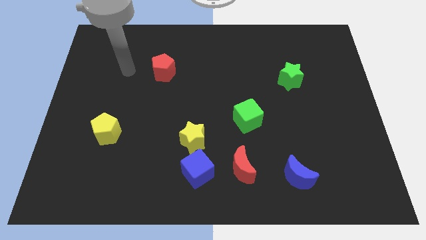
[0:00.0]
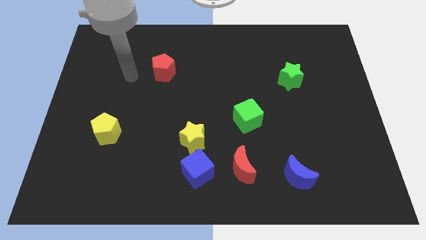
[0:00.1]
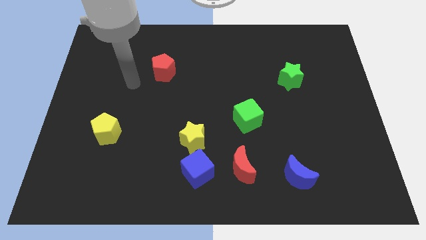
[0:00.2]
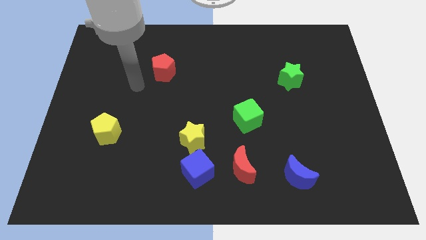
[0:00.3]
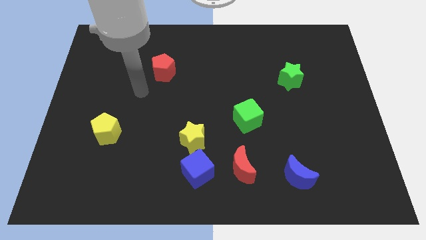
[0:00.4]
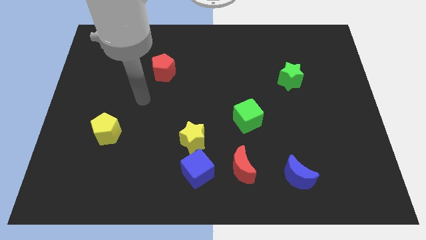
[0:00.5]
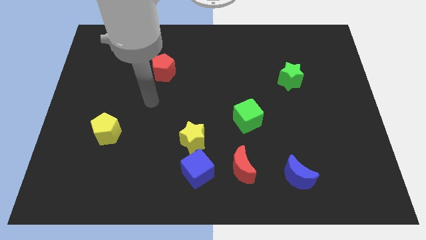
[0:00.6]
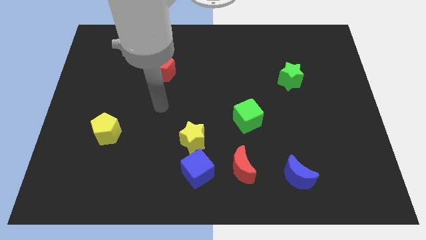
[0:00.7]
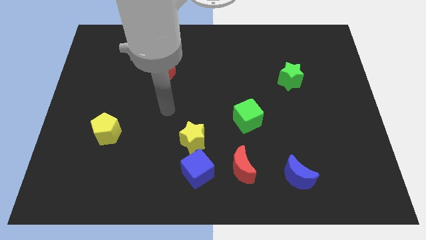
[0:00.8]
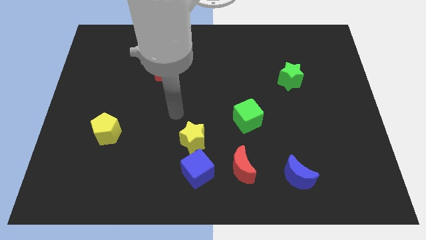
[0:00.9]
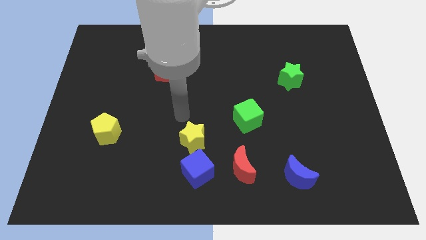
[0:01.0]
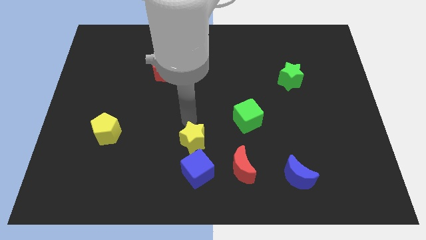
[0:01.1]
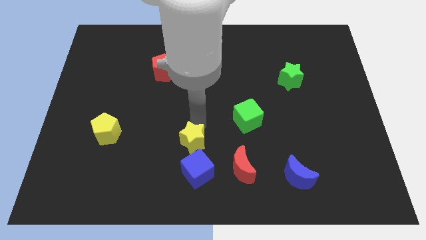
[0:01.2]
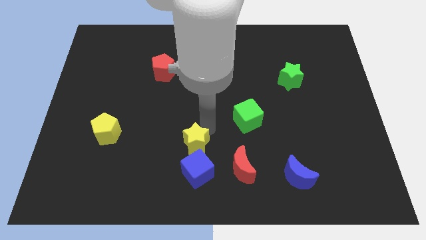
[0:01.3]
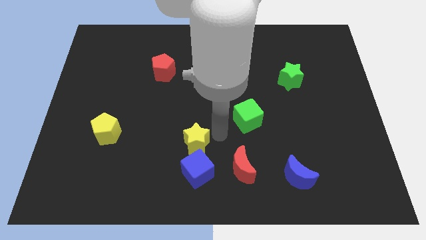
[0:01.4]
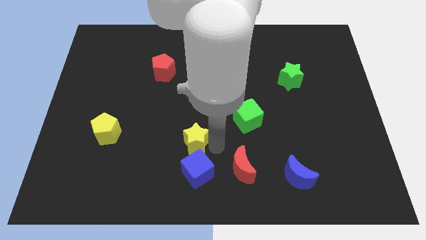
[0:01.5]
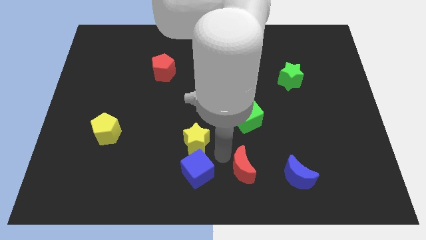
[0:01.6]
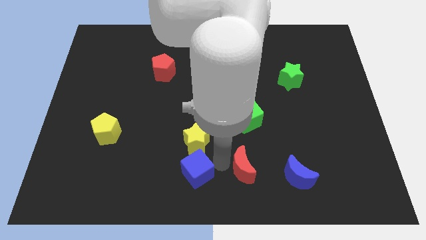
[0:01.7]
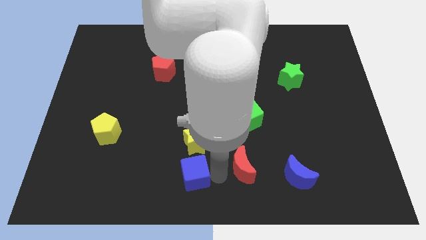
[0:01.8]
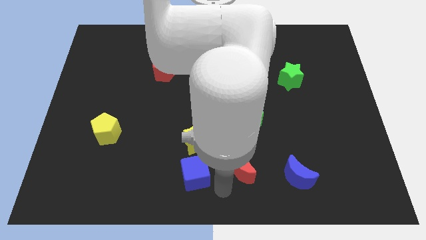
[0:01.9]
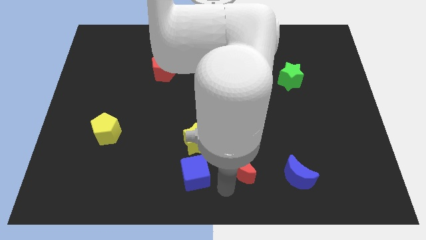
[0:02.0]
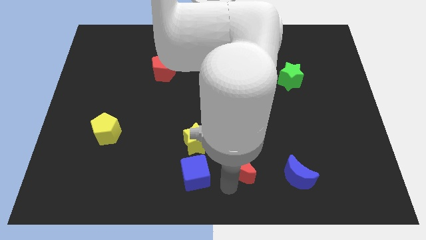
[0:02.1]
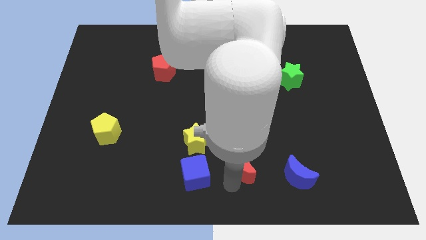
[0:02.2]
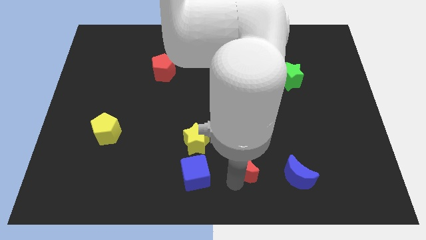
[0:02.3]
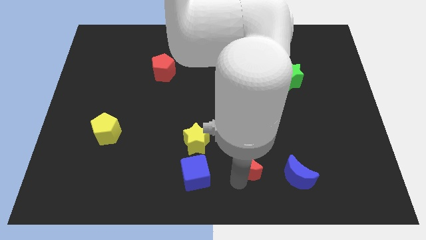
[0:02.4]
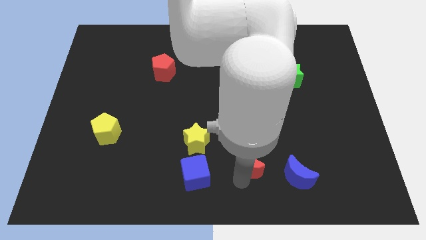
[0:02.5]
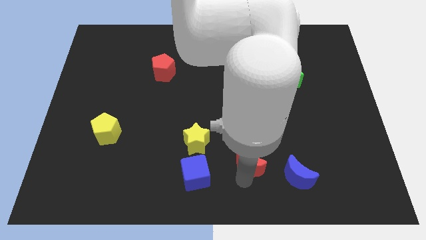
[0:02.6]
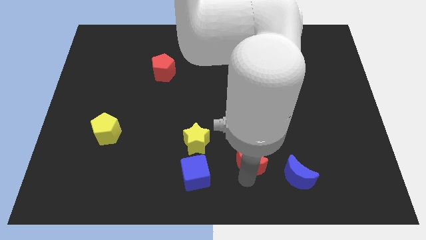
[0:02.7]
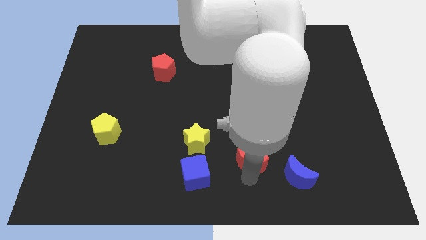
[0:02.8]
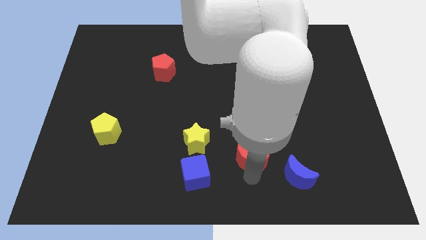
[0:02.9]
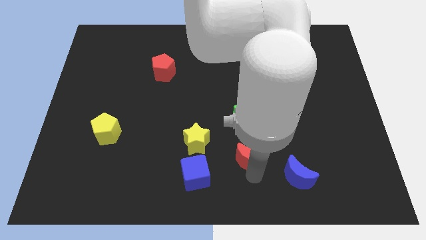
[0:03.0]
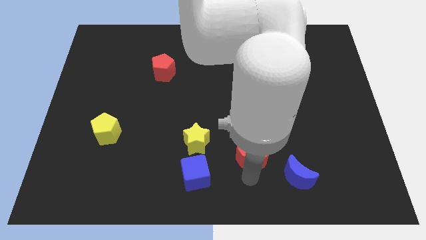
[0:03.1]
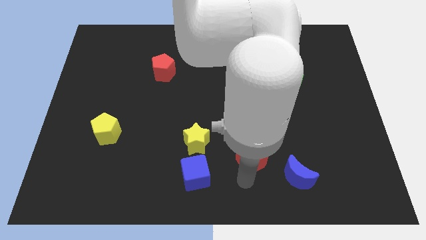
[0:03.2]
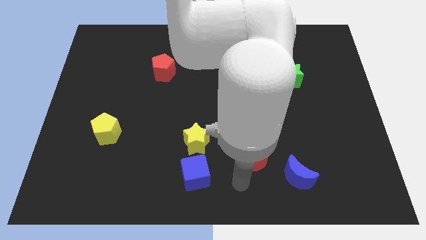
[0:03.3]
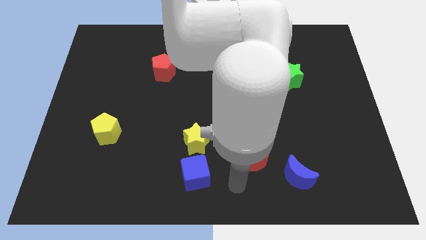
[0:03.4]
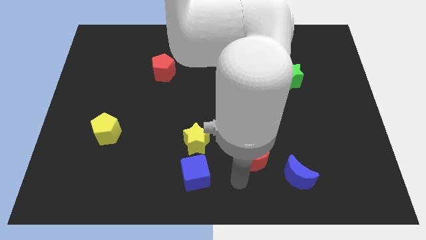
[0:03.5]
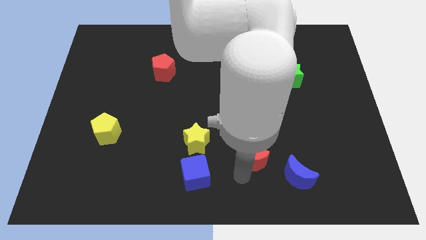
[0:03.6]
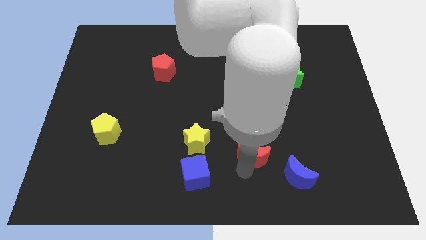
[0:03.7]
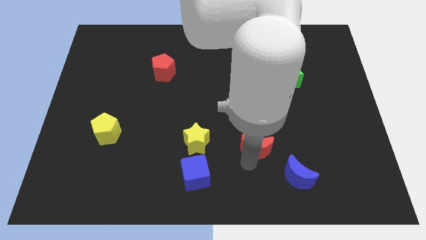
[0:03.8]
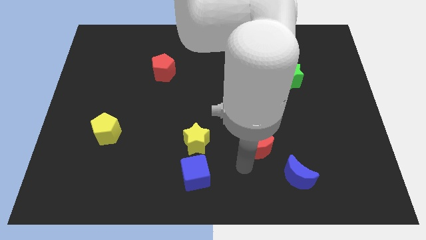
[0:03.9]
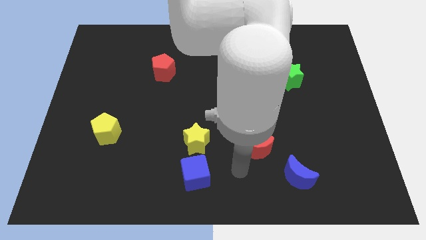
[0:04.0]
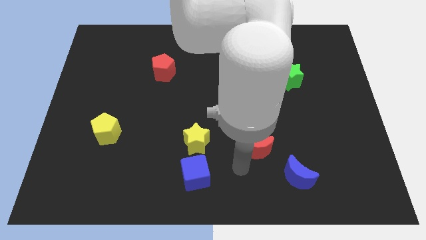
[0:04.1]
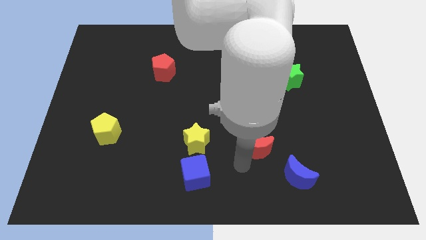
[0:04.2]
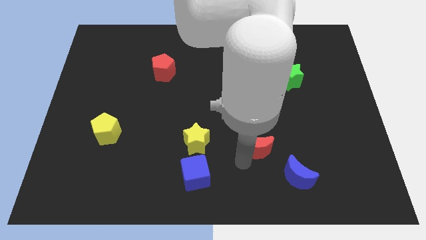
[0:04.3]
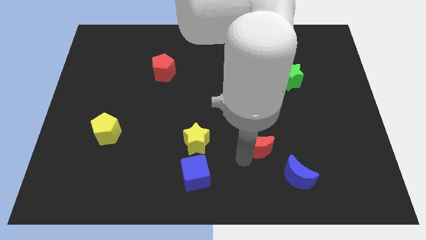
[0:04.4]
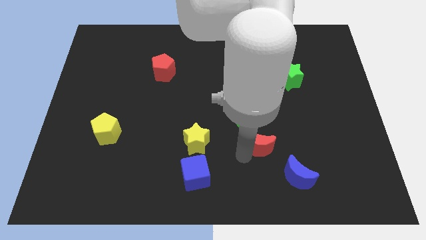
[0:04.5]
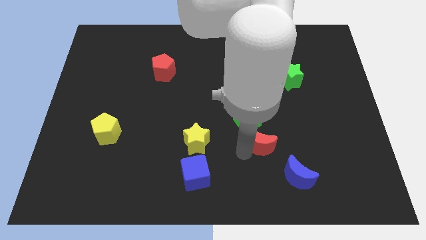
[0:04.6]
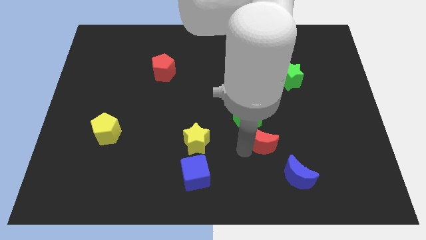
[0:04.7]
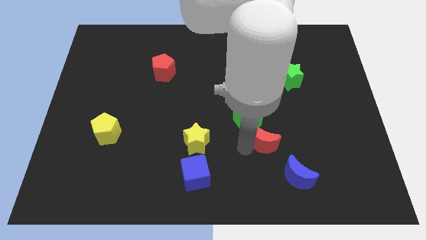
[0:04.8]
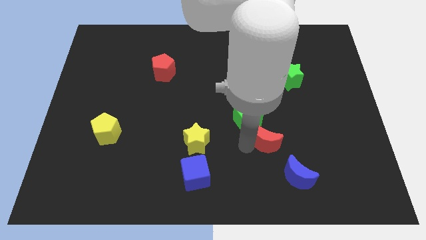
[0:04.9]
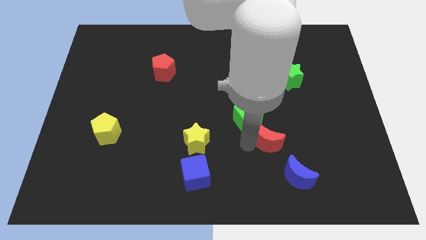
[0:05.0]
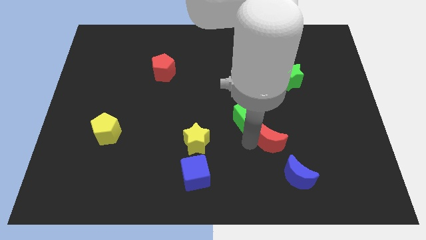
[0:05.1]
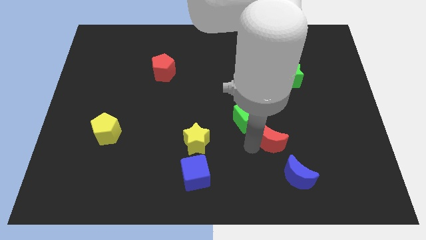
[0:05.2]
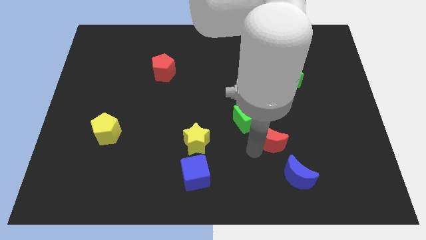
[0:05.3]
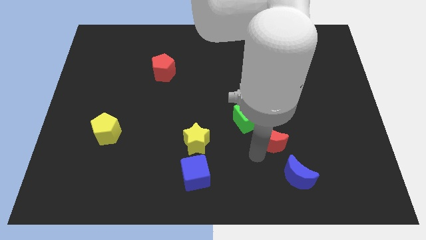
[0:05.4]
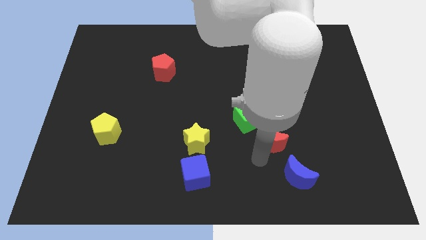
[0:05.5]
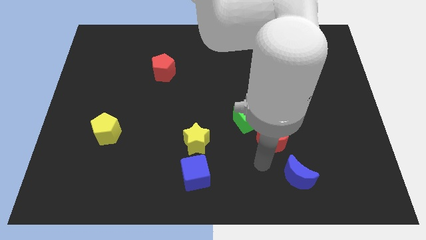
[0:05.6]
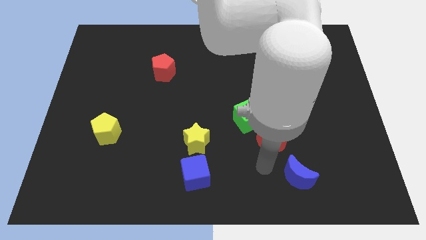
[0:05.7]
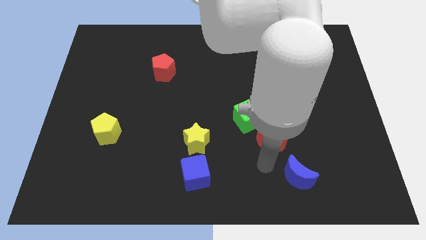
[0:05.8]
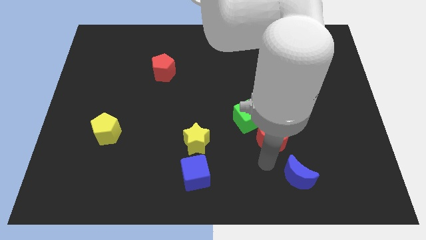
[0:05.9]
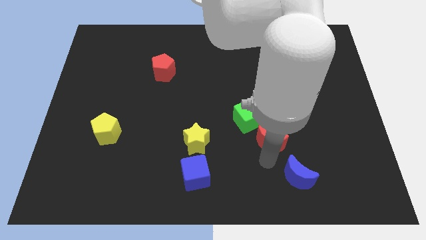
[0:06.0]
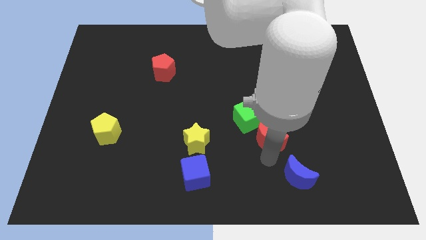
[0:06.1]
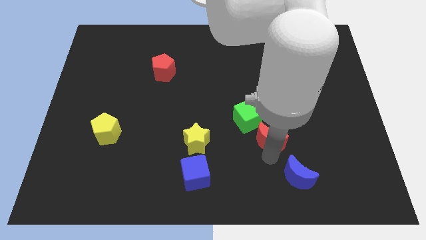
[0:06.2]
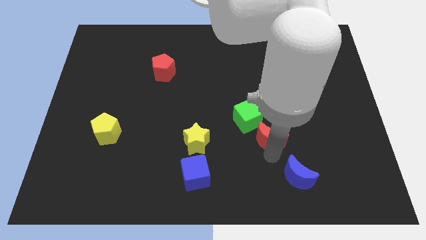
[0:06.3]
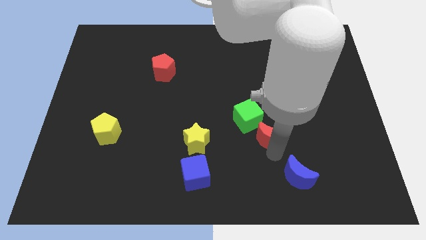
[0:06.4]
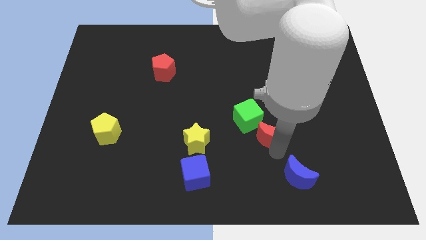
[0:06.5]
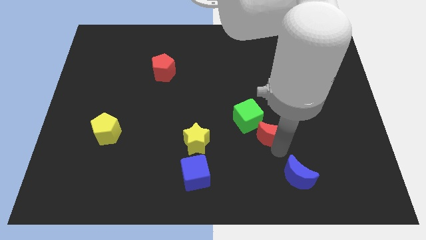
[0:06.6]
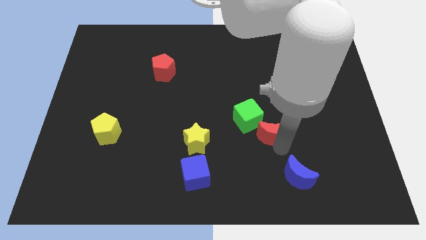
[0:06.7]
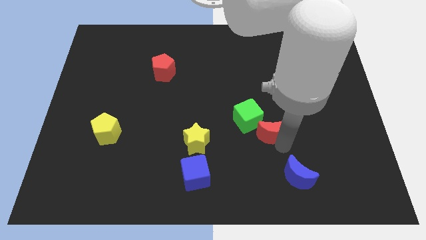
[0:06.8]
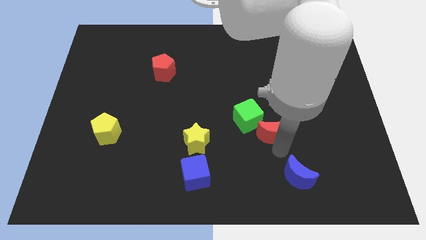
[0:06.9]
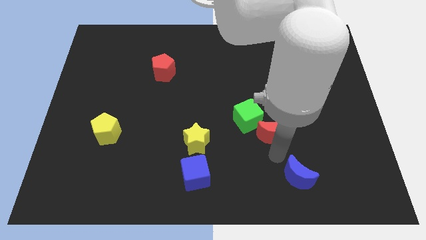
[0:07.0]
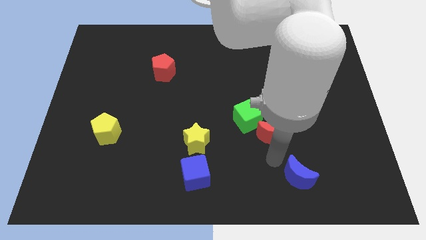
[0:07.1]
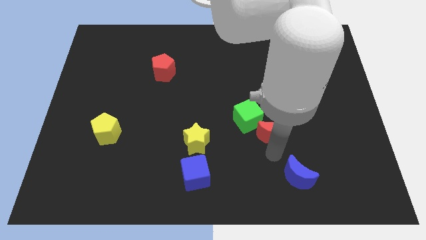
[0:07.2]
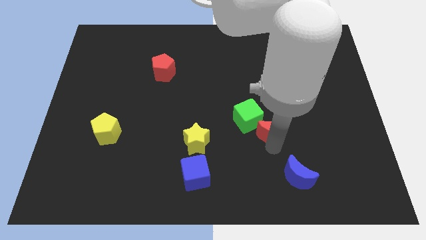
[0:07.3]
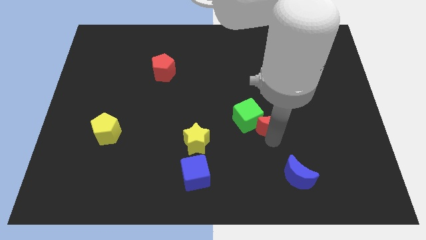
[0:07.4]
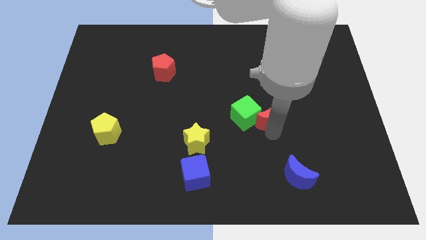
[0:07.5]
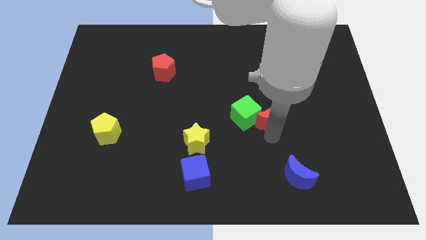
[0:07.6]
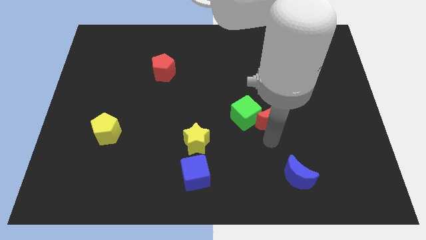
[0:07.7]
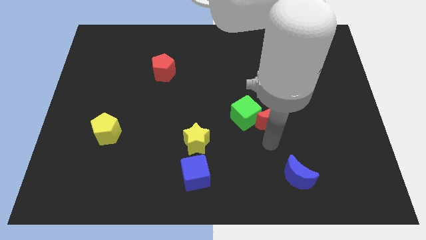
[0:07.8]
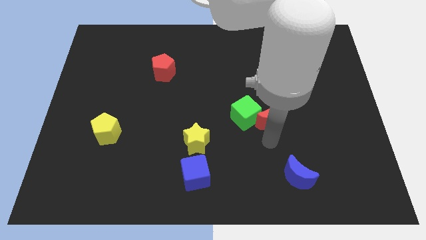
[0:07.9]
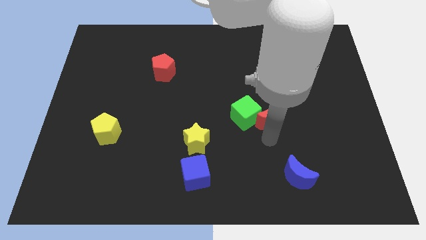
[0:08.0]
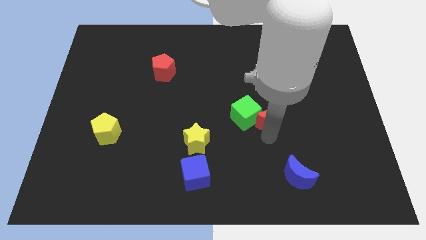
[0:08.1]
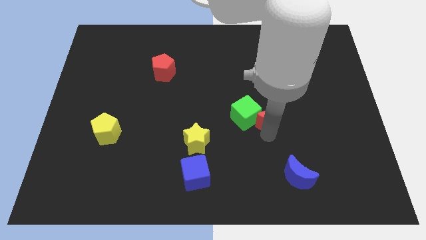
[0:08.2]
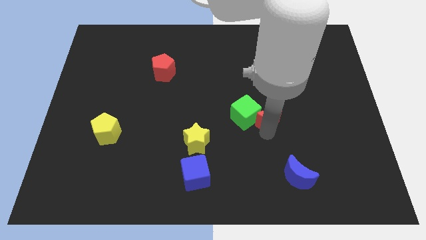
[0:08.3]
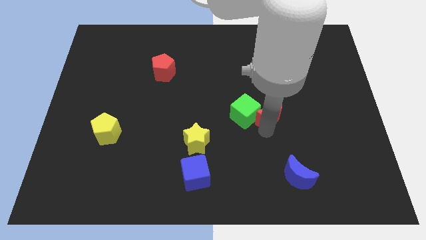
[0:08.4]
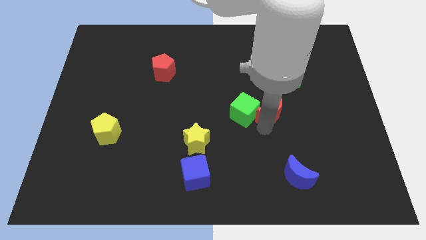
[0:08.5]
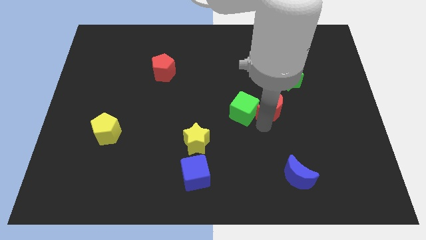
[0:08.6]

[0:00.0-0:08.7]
slide the red moon diagonally down and to the left of the green star
